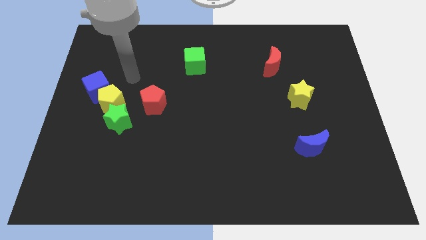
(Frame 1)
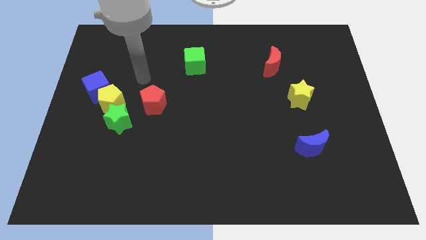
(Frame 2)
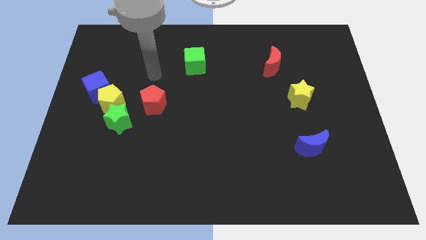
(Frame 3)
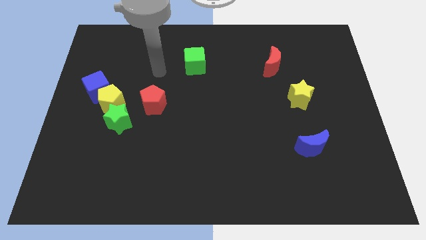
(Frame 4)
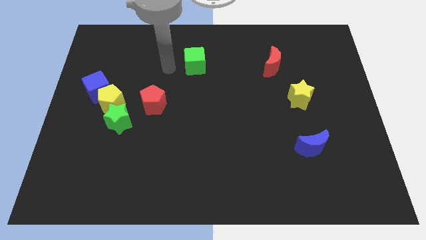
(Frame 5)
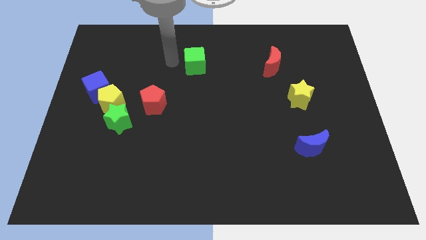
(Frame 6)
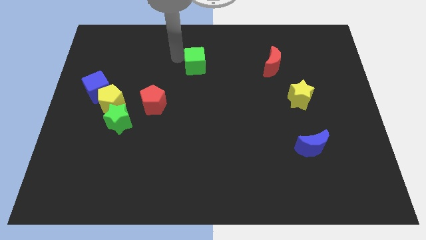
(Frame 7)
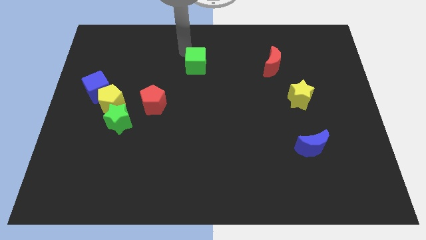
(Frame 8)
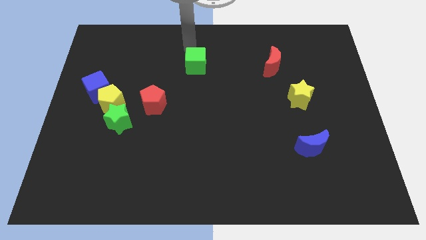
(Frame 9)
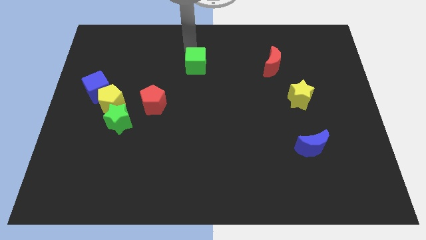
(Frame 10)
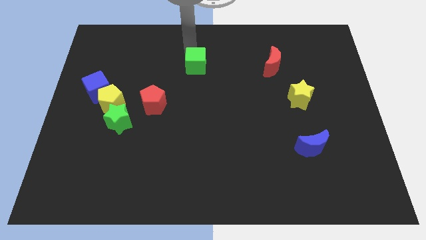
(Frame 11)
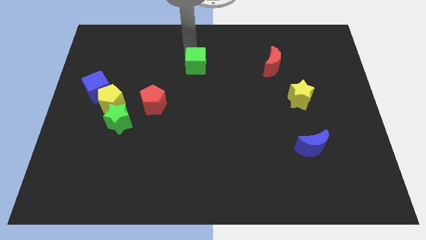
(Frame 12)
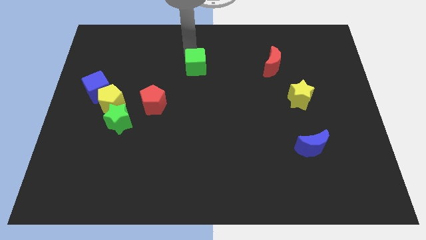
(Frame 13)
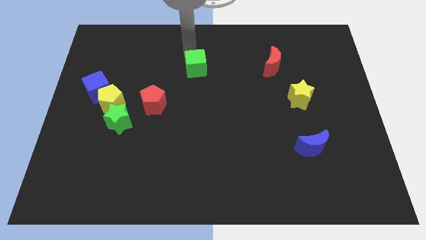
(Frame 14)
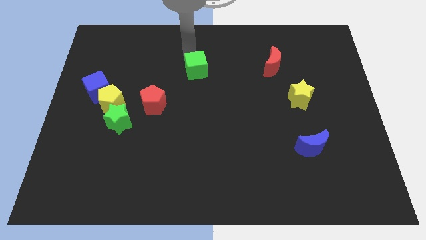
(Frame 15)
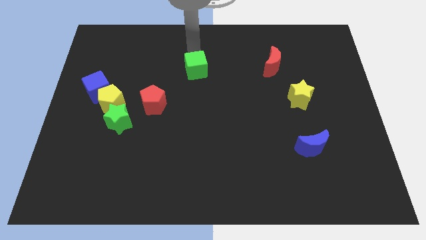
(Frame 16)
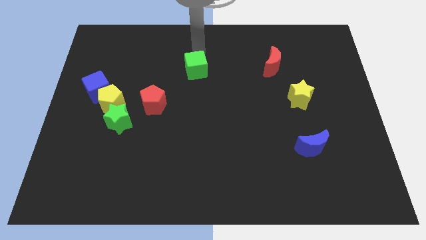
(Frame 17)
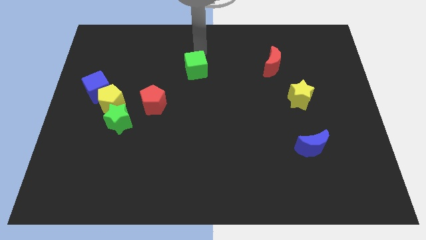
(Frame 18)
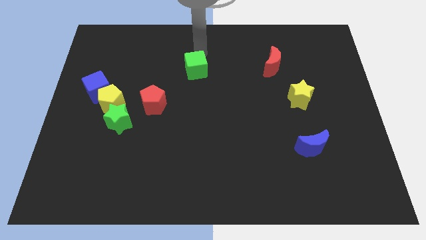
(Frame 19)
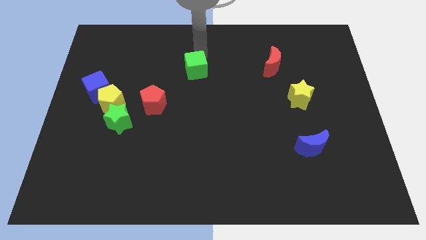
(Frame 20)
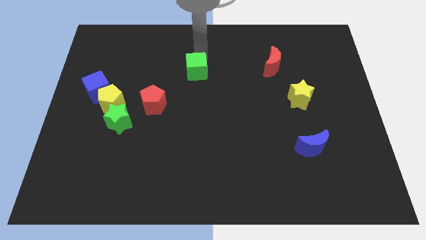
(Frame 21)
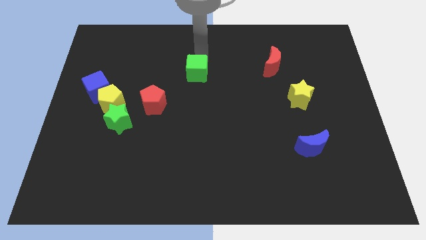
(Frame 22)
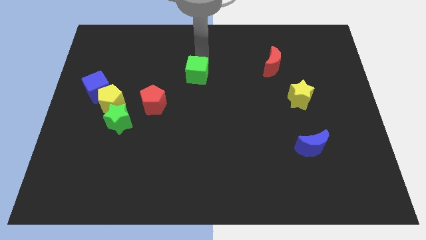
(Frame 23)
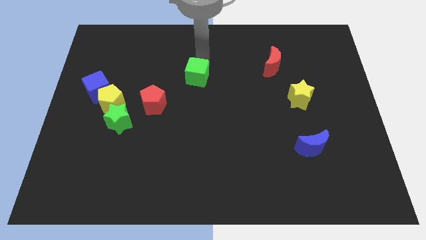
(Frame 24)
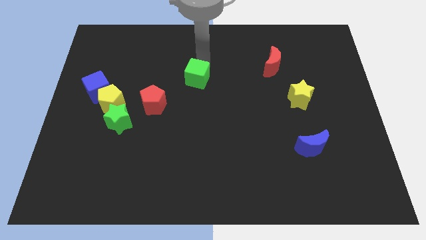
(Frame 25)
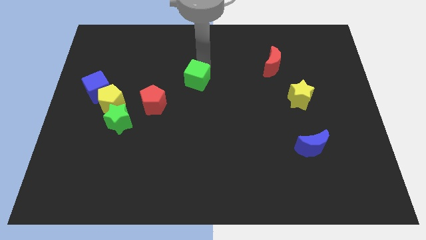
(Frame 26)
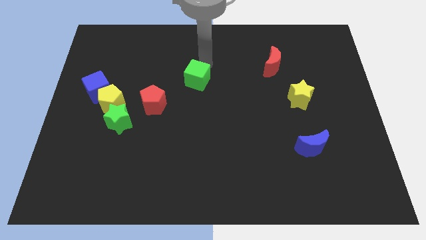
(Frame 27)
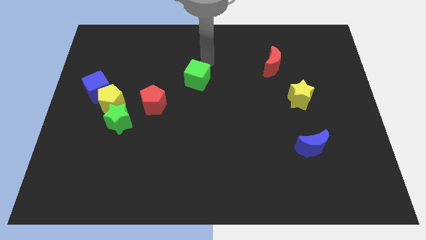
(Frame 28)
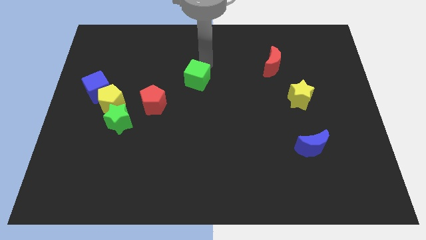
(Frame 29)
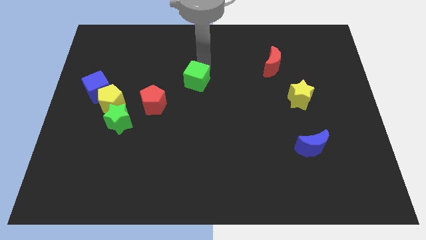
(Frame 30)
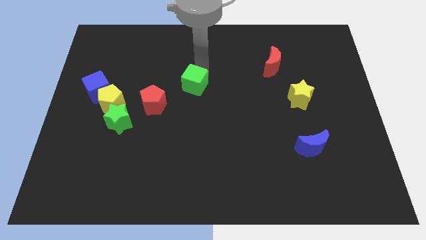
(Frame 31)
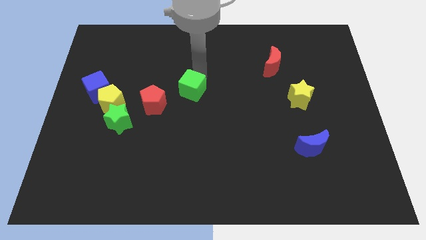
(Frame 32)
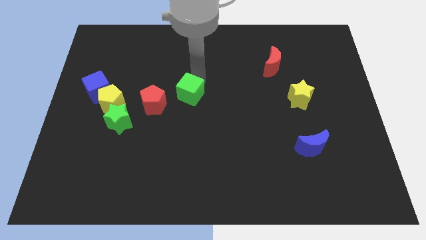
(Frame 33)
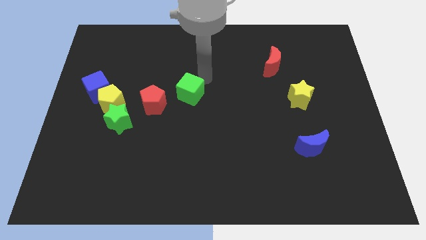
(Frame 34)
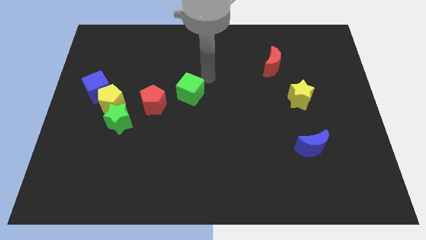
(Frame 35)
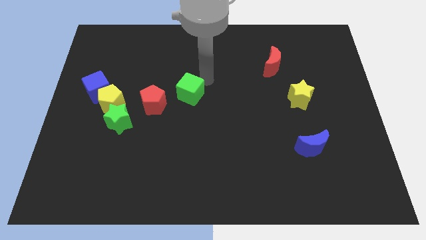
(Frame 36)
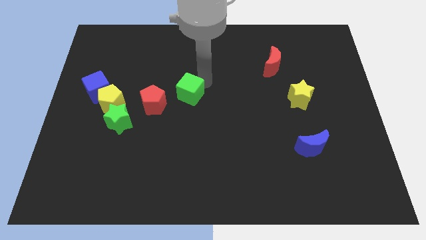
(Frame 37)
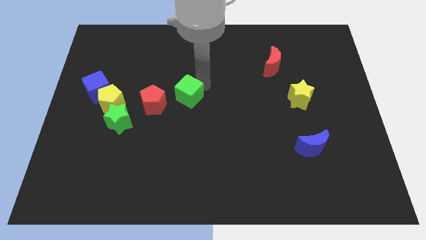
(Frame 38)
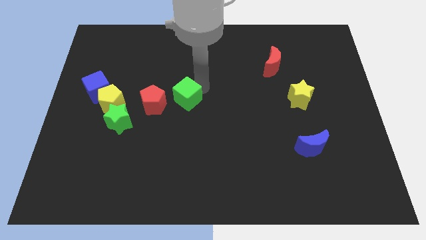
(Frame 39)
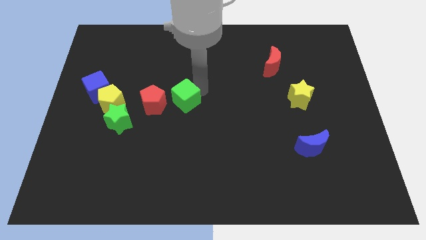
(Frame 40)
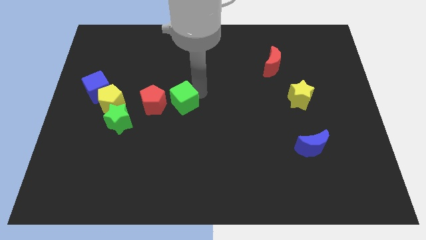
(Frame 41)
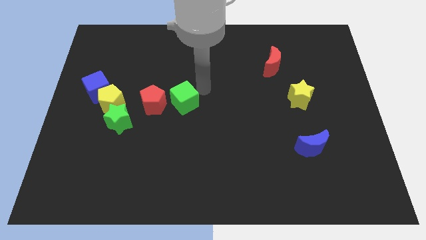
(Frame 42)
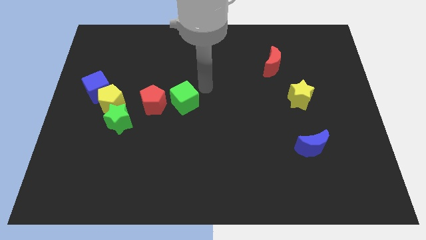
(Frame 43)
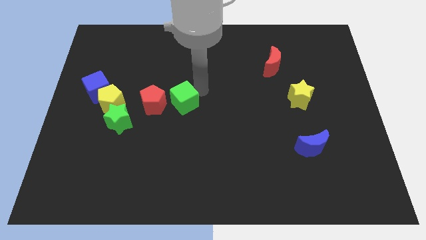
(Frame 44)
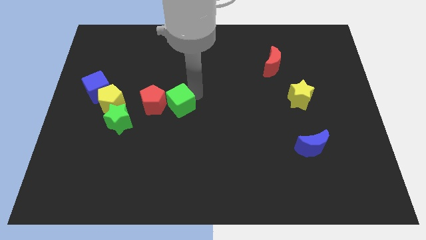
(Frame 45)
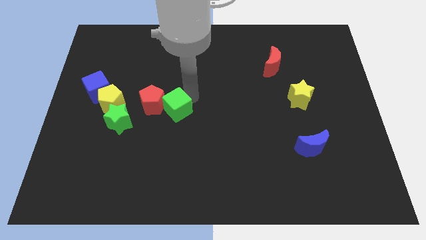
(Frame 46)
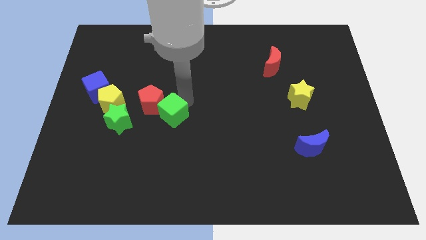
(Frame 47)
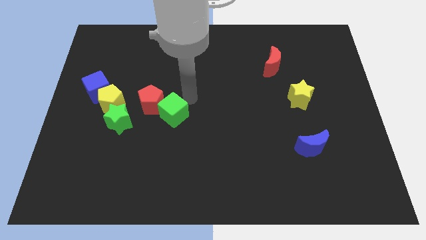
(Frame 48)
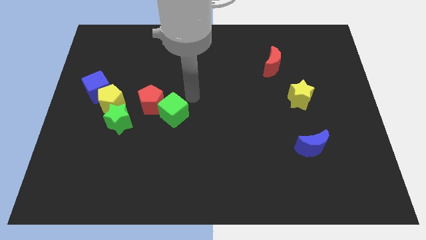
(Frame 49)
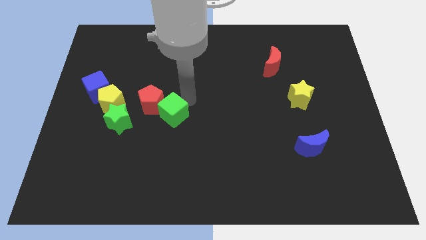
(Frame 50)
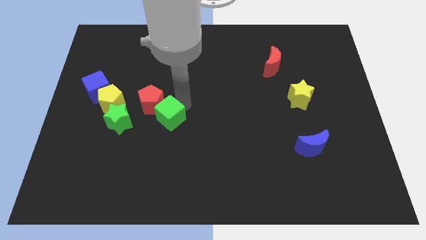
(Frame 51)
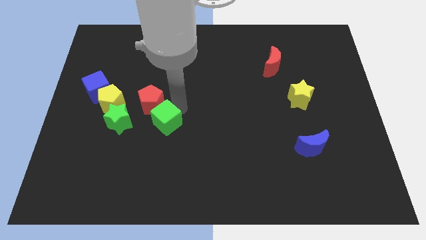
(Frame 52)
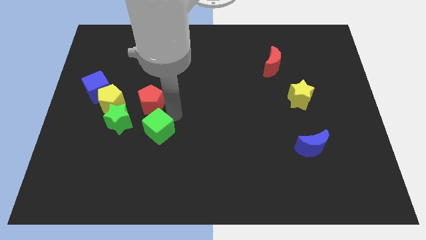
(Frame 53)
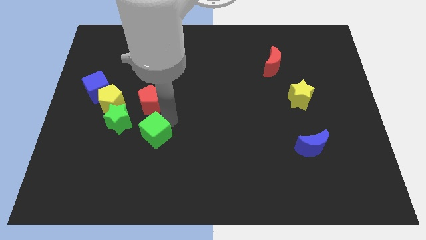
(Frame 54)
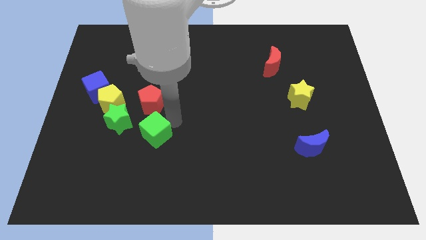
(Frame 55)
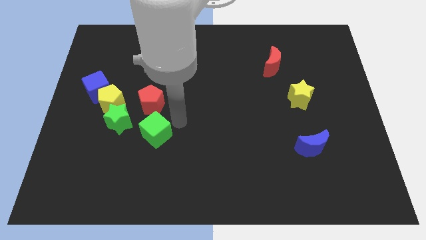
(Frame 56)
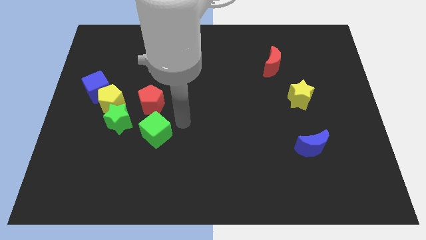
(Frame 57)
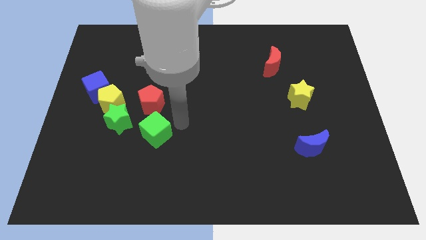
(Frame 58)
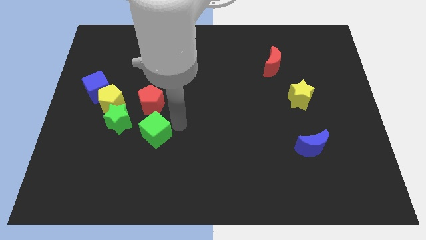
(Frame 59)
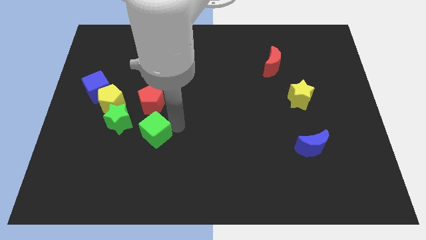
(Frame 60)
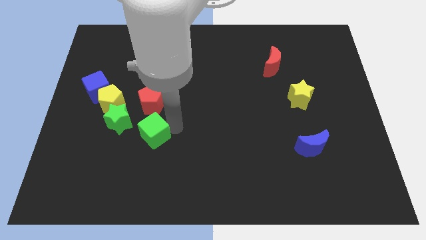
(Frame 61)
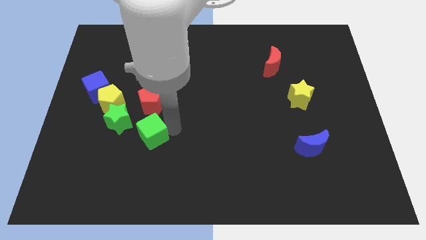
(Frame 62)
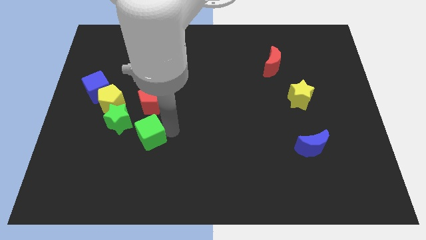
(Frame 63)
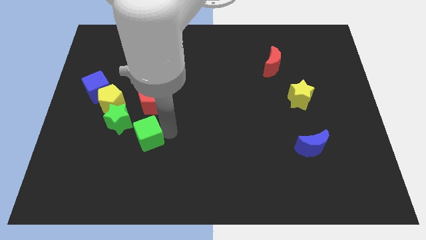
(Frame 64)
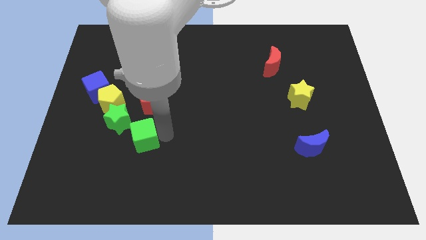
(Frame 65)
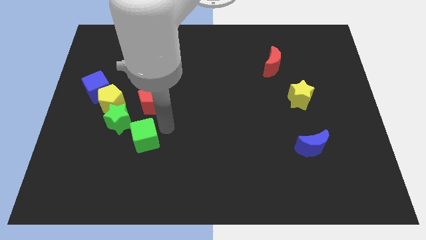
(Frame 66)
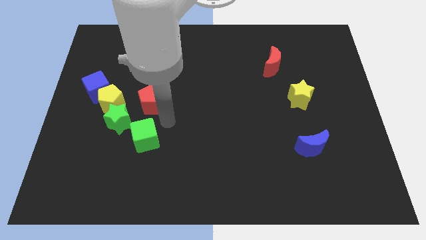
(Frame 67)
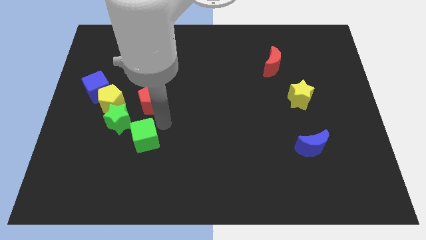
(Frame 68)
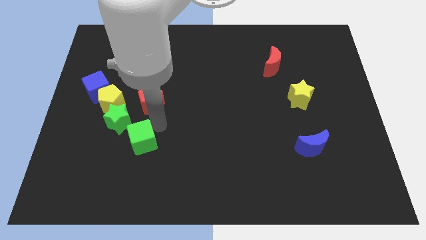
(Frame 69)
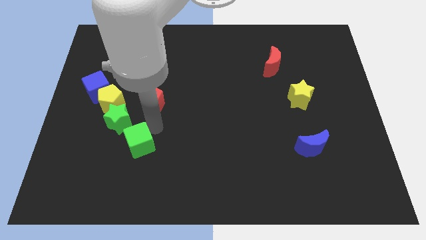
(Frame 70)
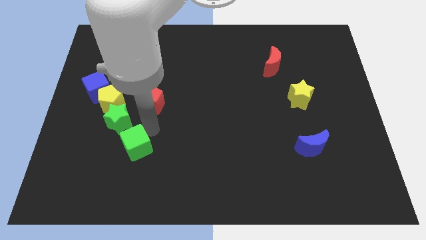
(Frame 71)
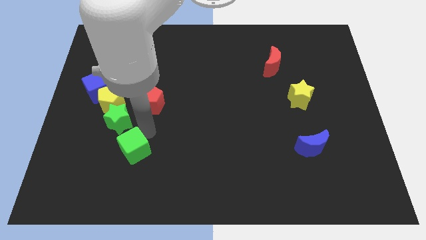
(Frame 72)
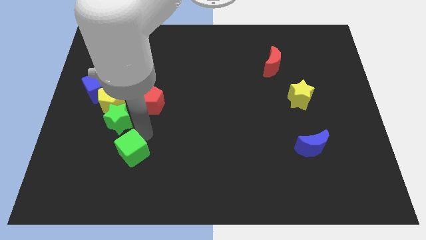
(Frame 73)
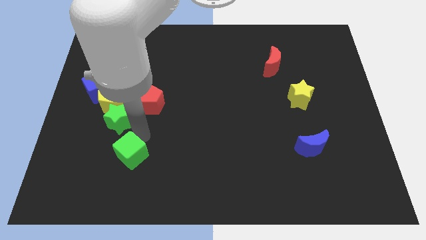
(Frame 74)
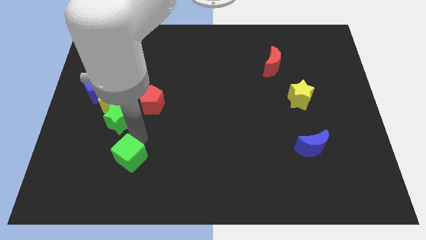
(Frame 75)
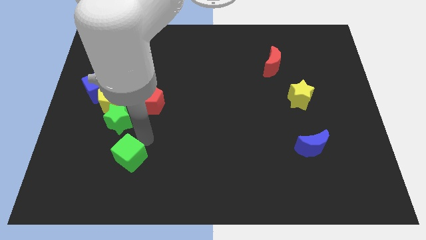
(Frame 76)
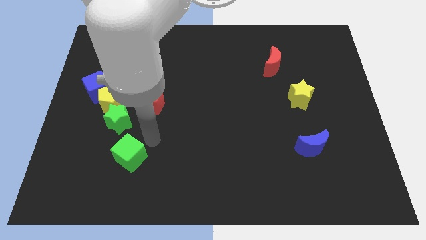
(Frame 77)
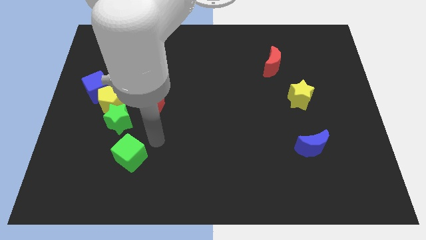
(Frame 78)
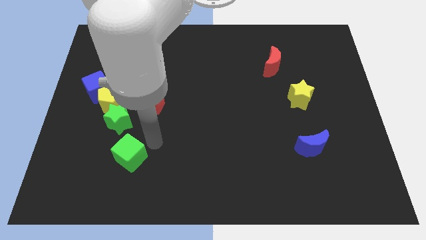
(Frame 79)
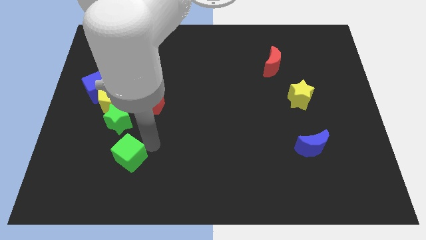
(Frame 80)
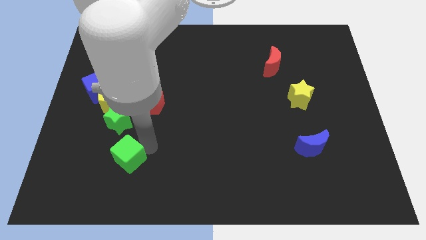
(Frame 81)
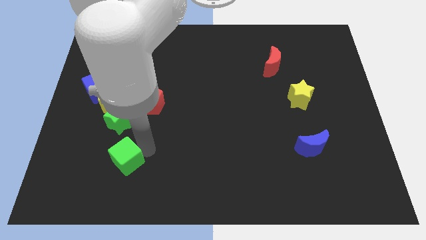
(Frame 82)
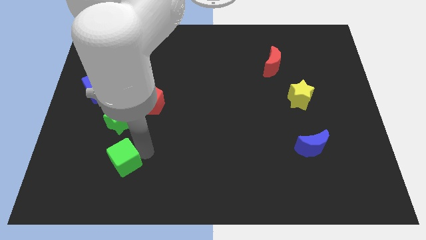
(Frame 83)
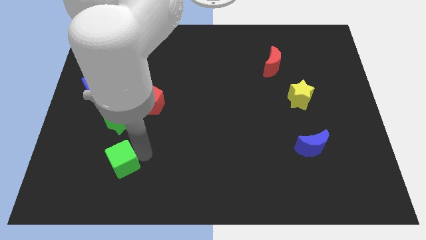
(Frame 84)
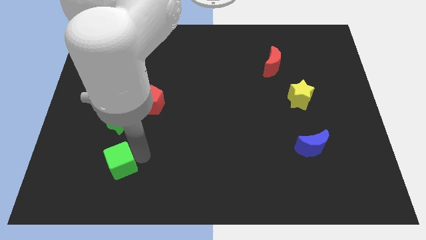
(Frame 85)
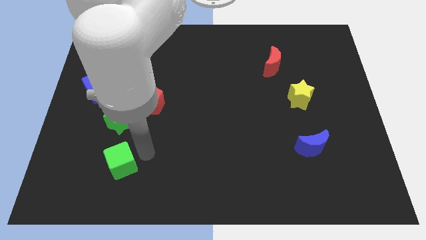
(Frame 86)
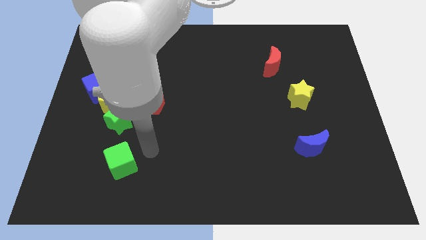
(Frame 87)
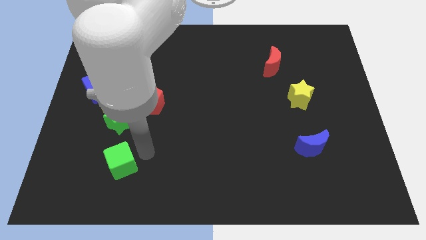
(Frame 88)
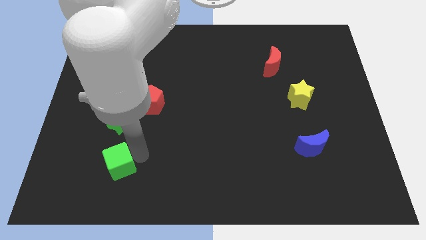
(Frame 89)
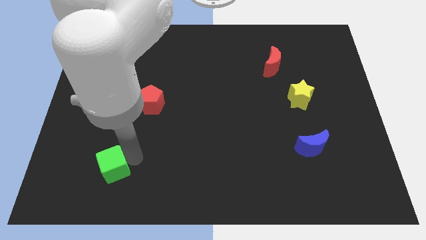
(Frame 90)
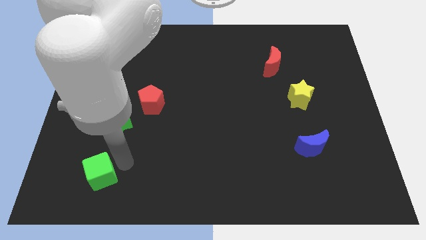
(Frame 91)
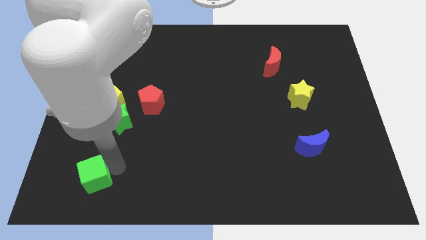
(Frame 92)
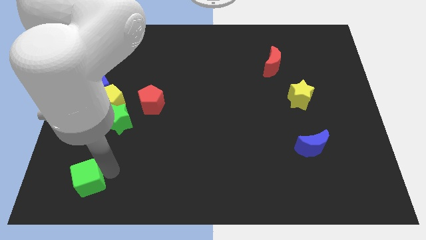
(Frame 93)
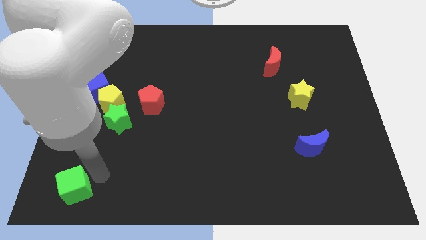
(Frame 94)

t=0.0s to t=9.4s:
put the green cube to the bottom left of the board
